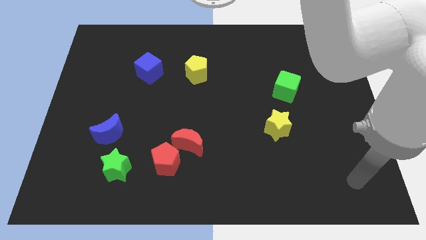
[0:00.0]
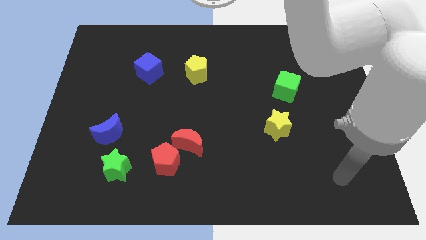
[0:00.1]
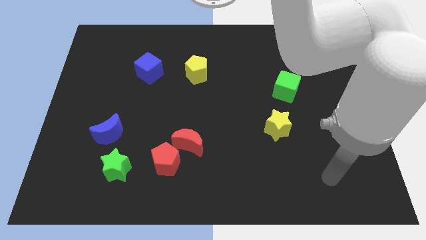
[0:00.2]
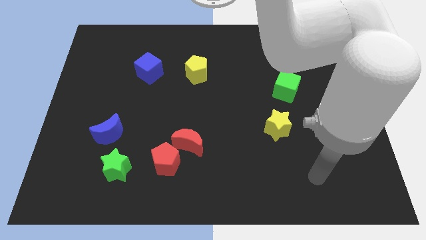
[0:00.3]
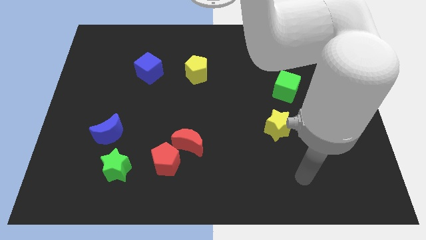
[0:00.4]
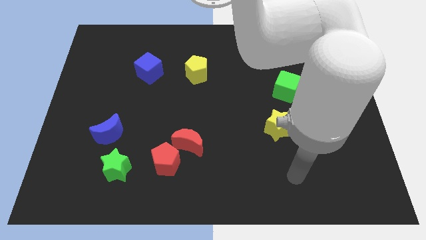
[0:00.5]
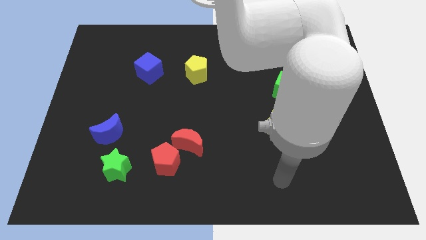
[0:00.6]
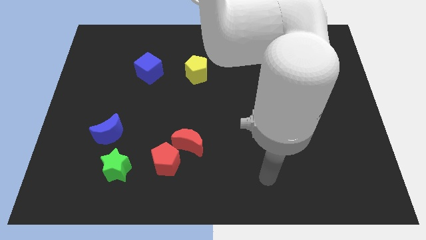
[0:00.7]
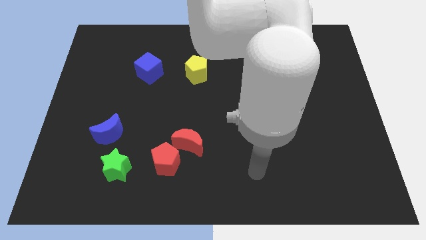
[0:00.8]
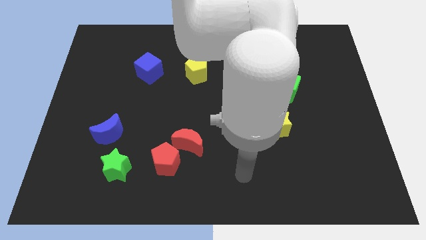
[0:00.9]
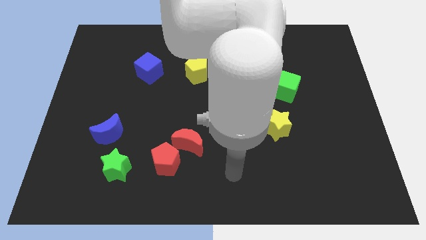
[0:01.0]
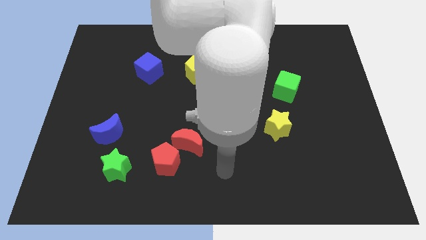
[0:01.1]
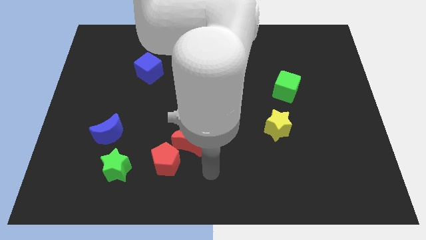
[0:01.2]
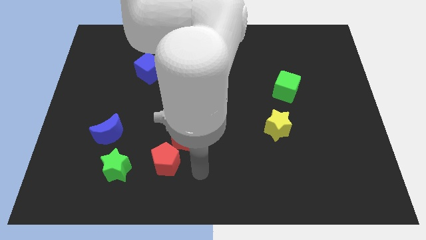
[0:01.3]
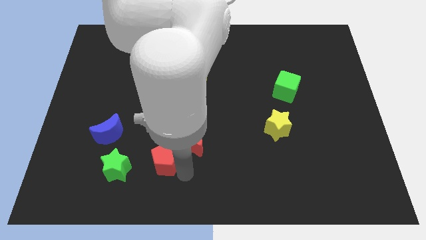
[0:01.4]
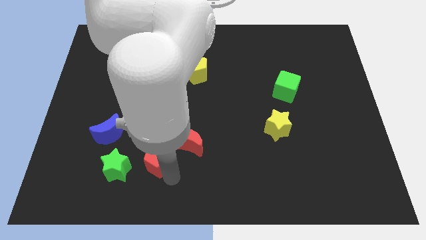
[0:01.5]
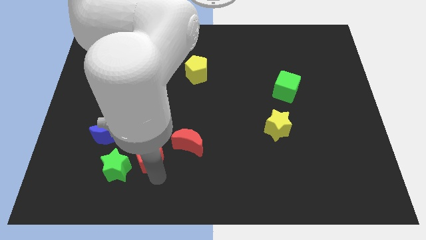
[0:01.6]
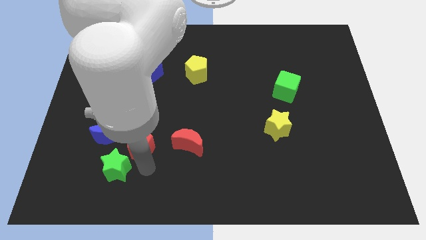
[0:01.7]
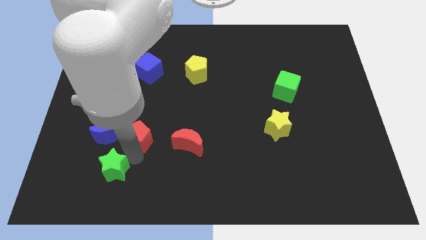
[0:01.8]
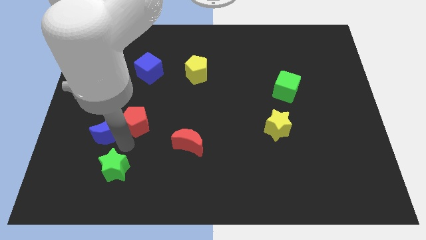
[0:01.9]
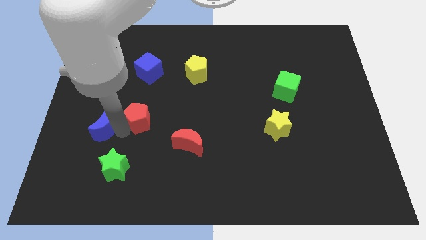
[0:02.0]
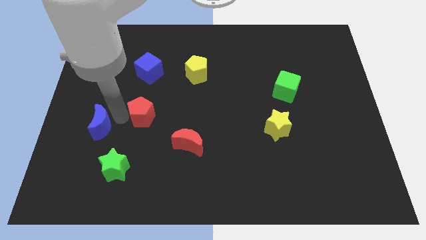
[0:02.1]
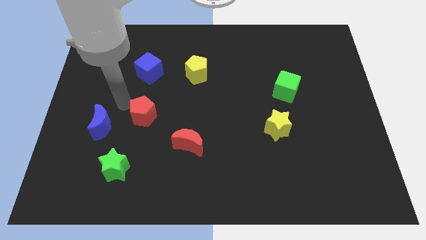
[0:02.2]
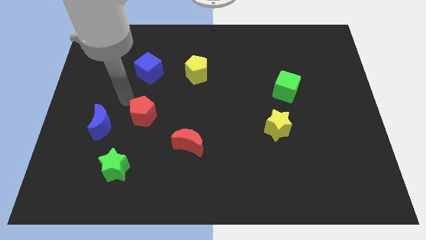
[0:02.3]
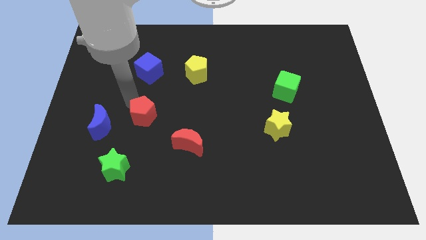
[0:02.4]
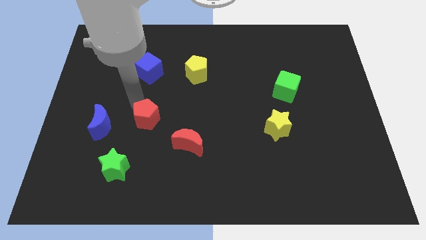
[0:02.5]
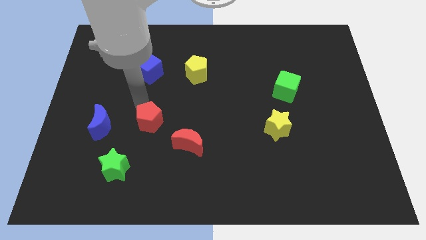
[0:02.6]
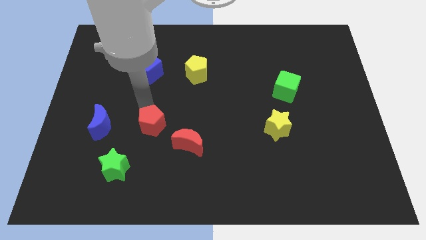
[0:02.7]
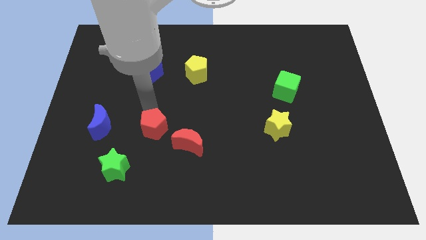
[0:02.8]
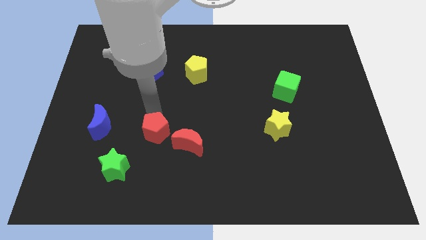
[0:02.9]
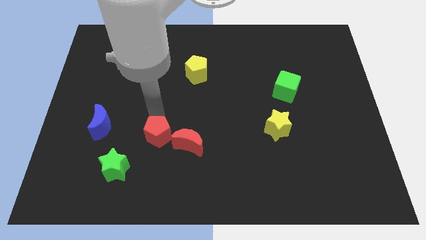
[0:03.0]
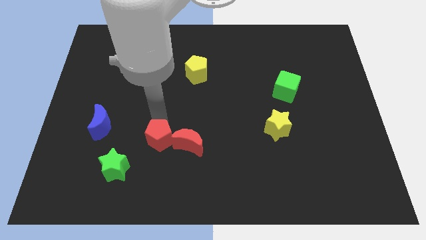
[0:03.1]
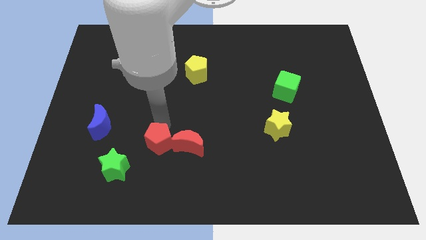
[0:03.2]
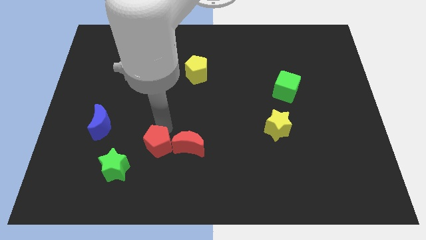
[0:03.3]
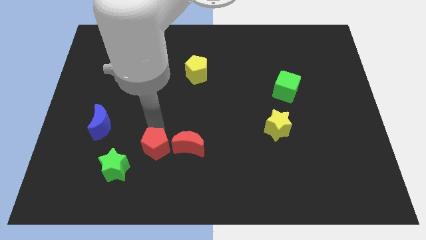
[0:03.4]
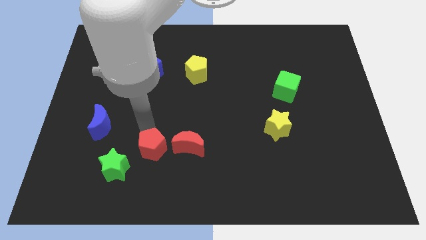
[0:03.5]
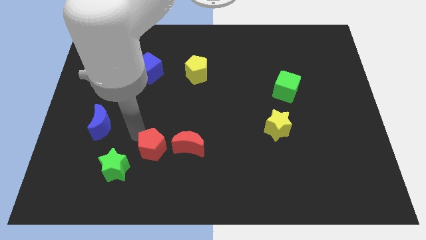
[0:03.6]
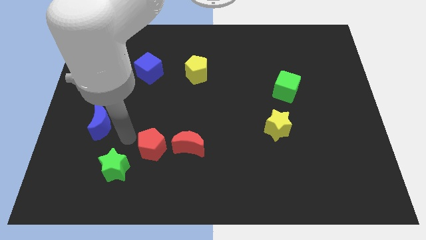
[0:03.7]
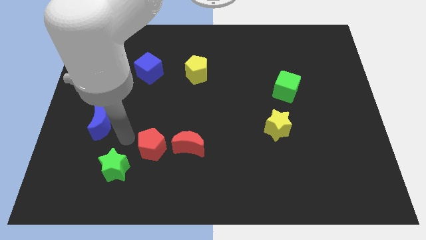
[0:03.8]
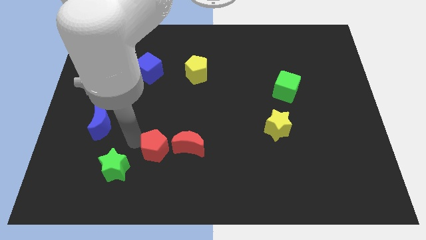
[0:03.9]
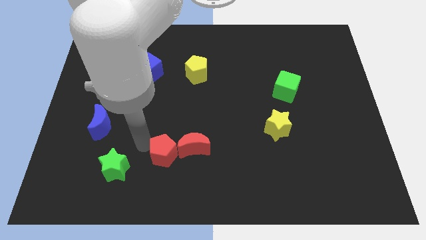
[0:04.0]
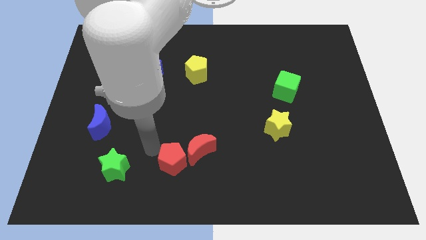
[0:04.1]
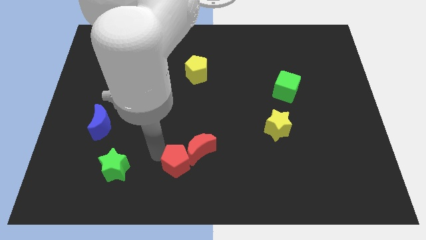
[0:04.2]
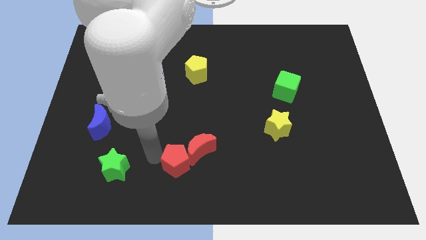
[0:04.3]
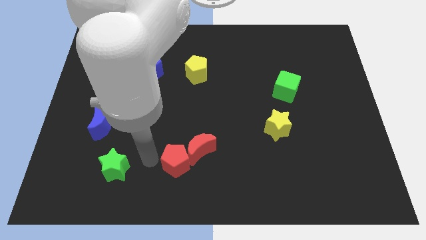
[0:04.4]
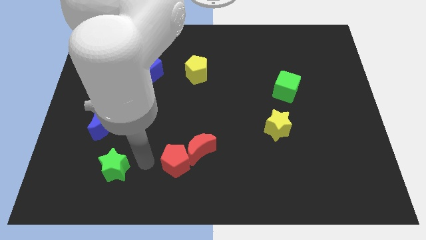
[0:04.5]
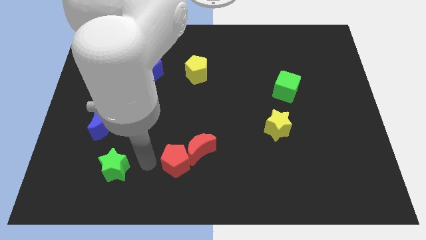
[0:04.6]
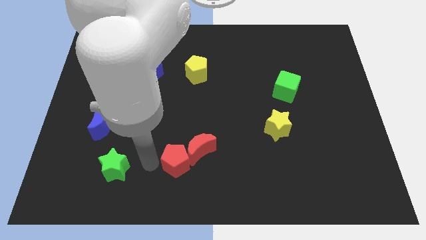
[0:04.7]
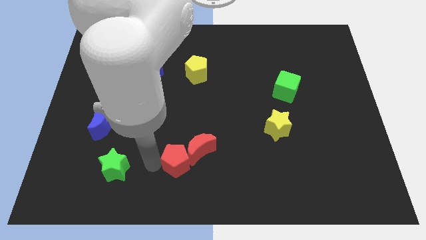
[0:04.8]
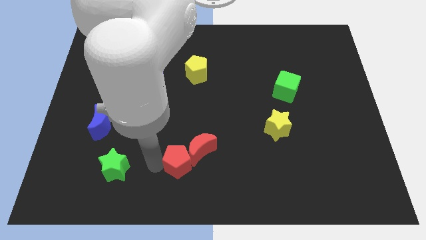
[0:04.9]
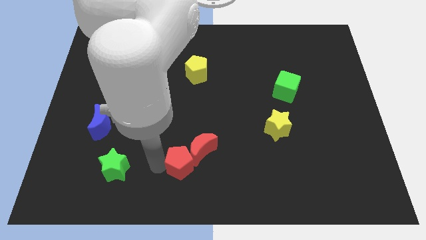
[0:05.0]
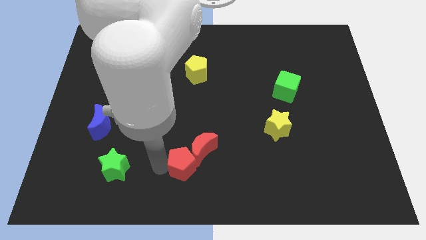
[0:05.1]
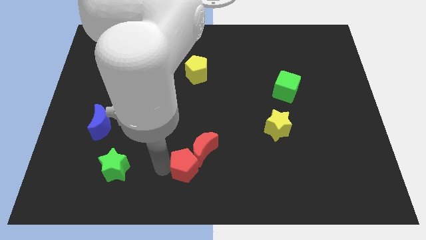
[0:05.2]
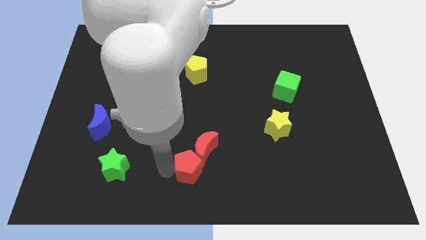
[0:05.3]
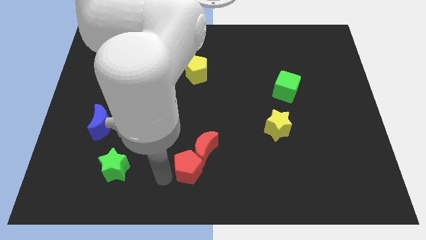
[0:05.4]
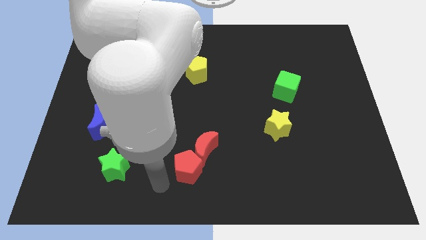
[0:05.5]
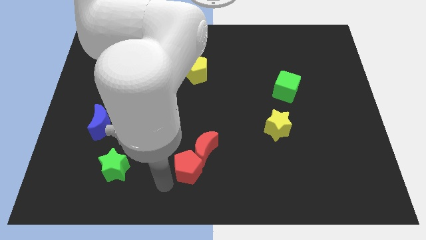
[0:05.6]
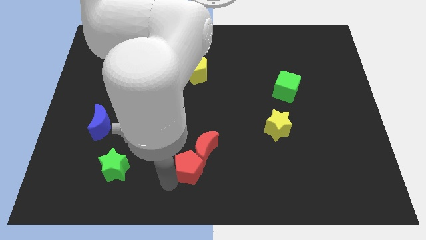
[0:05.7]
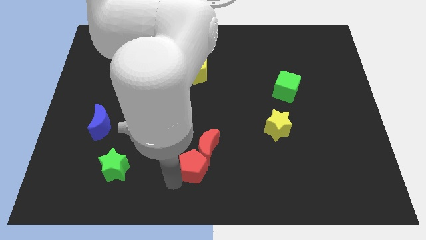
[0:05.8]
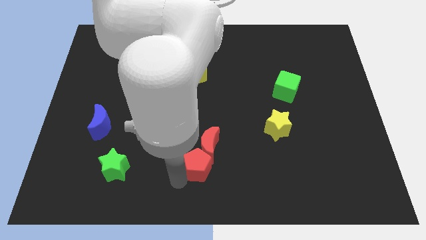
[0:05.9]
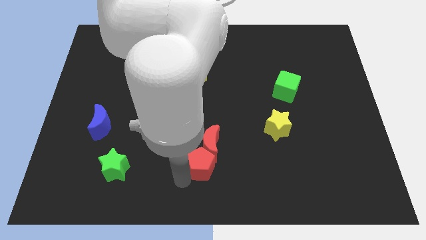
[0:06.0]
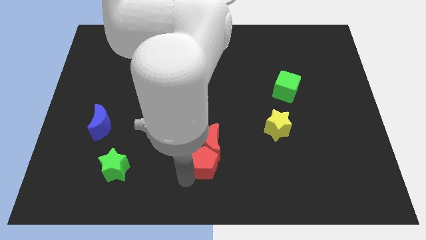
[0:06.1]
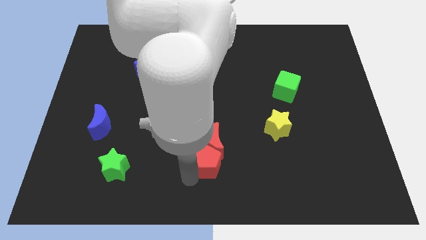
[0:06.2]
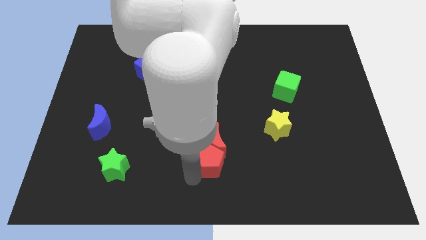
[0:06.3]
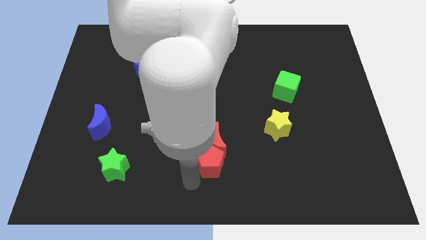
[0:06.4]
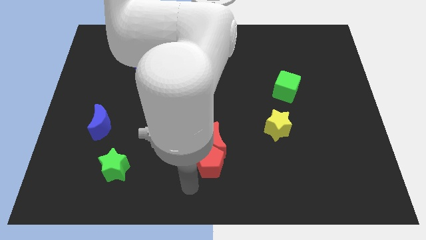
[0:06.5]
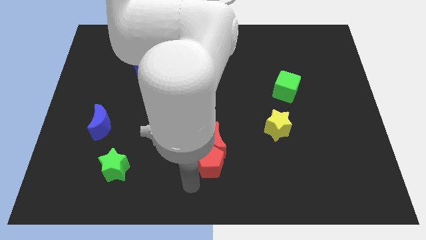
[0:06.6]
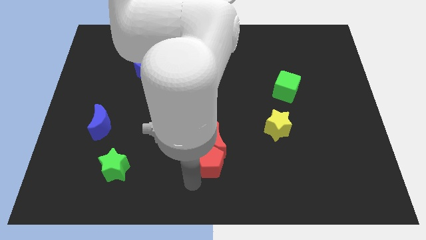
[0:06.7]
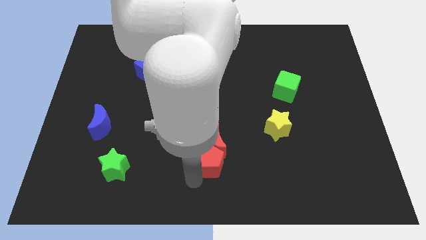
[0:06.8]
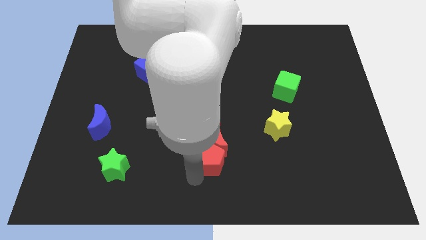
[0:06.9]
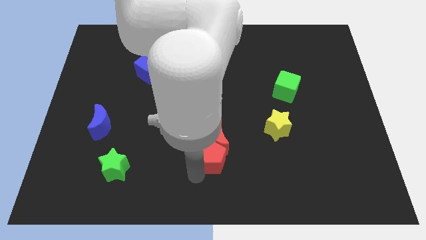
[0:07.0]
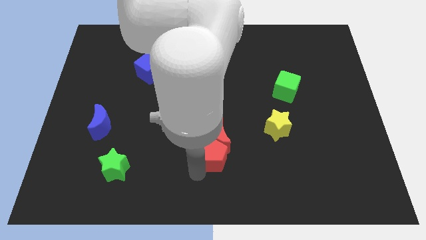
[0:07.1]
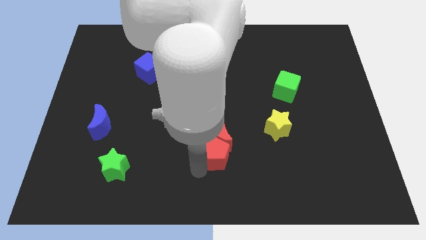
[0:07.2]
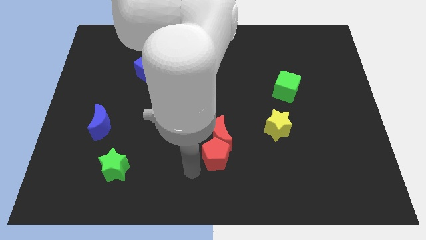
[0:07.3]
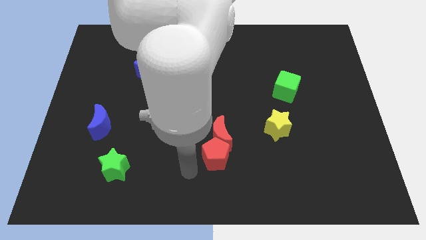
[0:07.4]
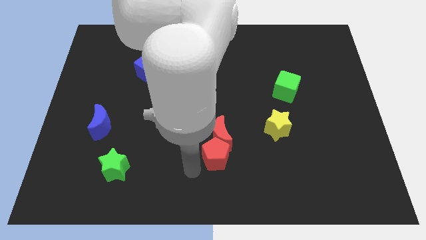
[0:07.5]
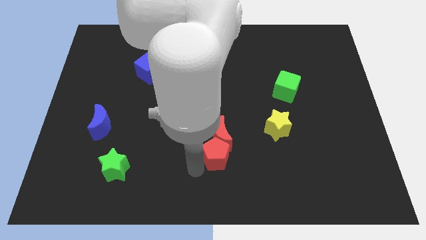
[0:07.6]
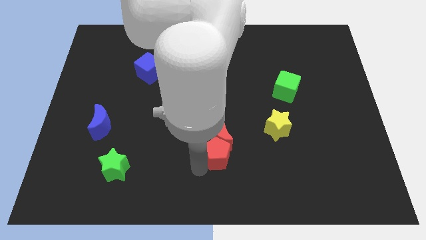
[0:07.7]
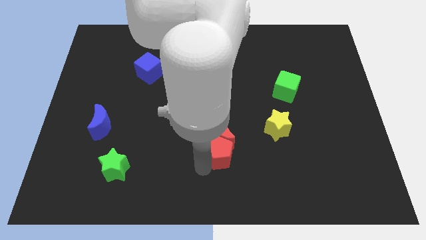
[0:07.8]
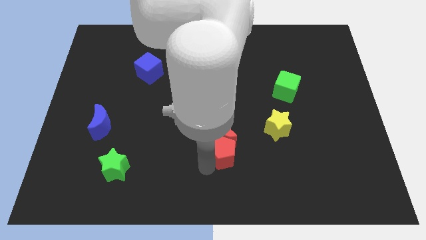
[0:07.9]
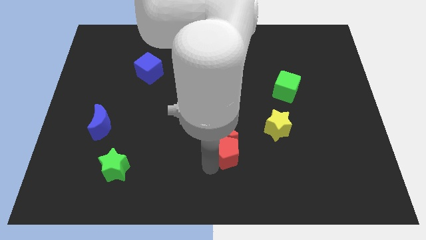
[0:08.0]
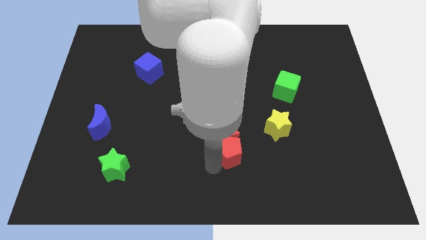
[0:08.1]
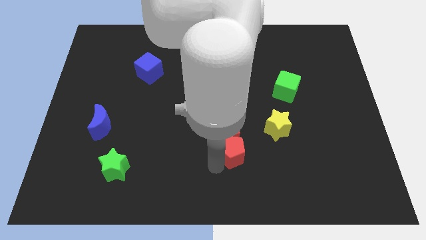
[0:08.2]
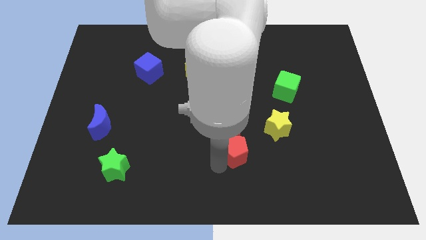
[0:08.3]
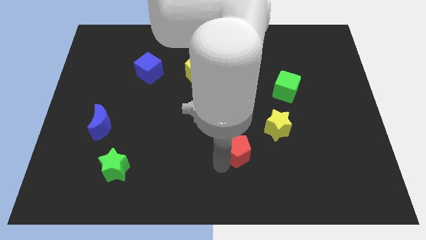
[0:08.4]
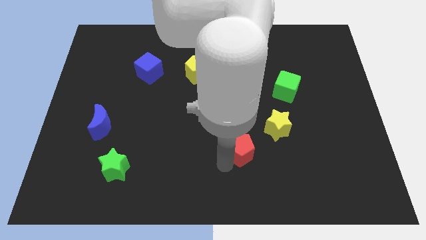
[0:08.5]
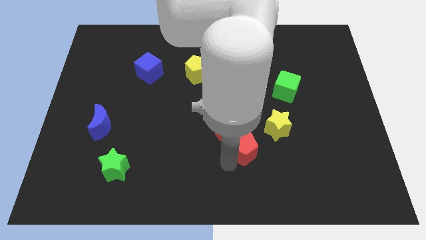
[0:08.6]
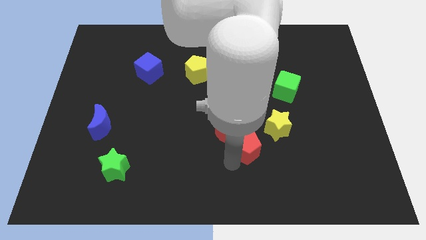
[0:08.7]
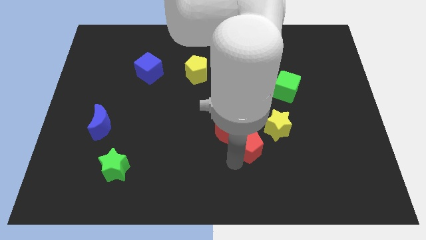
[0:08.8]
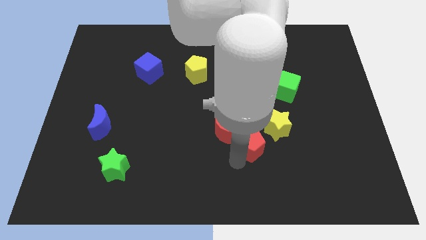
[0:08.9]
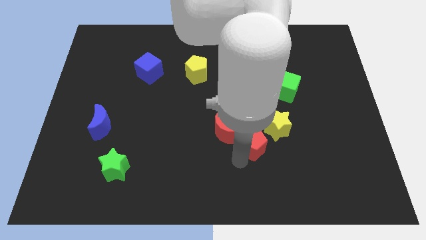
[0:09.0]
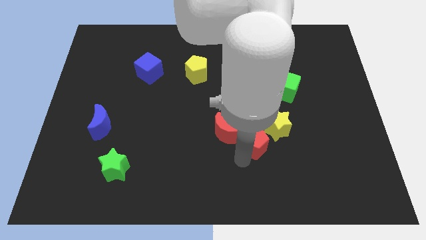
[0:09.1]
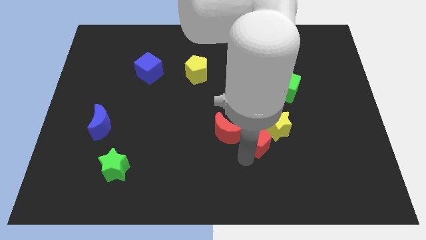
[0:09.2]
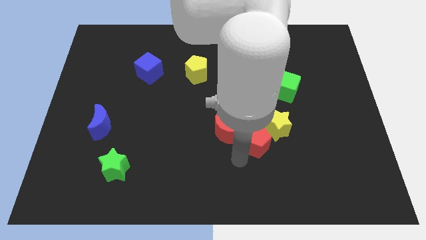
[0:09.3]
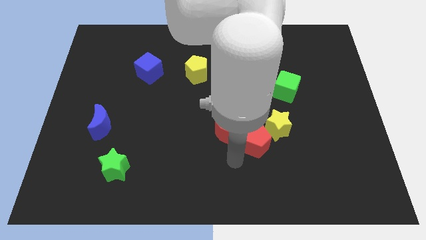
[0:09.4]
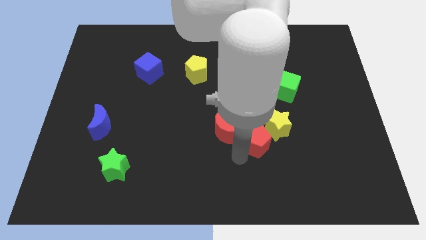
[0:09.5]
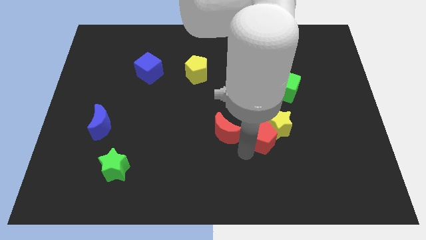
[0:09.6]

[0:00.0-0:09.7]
move the red pentagon towards the yellow star
